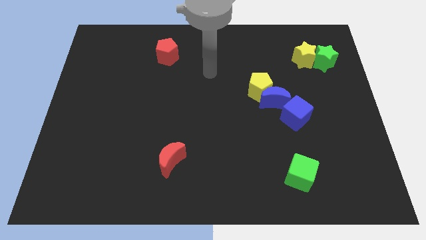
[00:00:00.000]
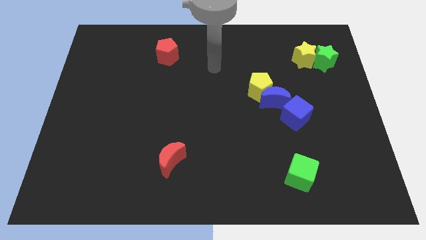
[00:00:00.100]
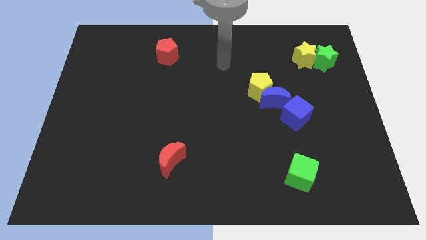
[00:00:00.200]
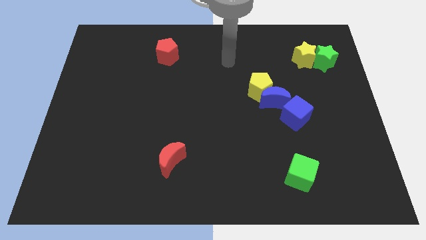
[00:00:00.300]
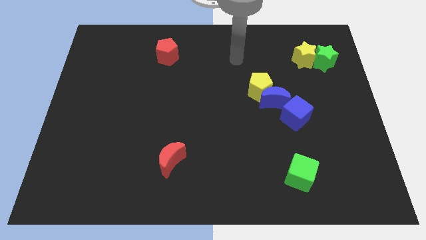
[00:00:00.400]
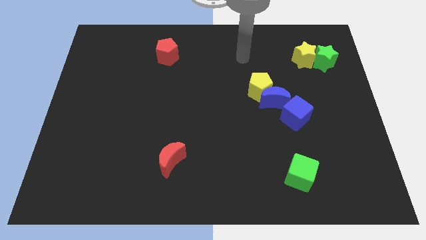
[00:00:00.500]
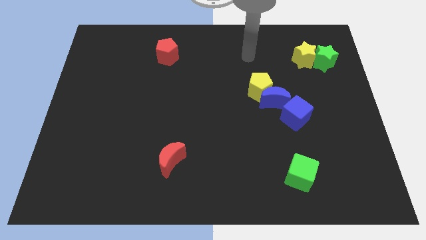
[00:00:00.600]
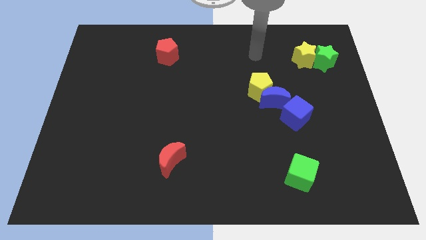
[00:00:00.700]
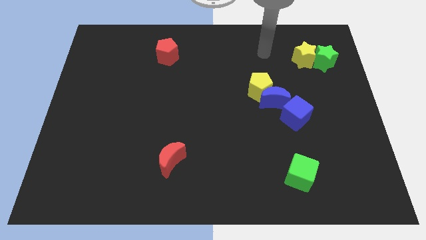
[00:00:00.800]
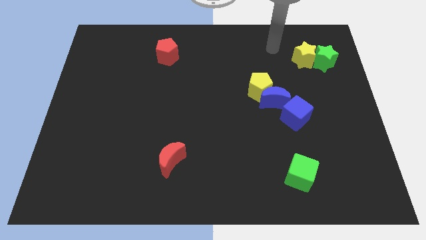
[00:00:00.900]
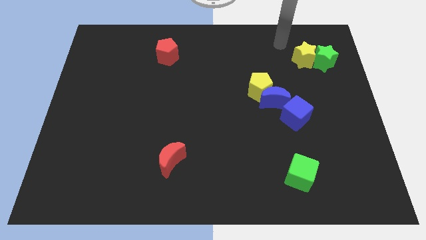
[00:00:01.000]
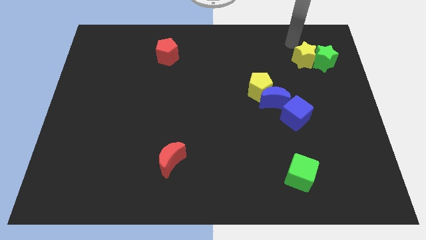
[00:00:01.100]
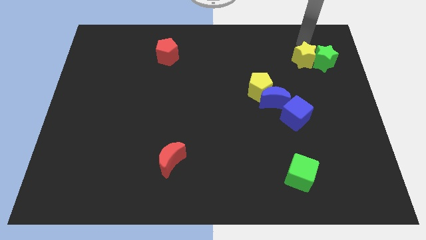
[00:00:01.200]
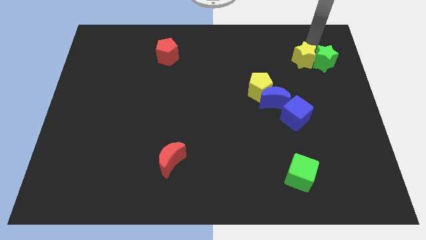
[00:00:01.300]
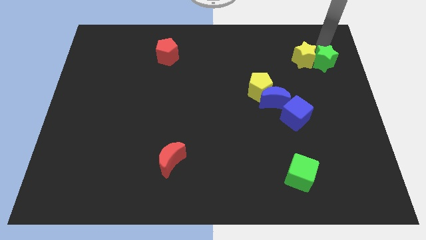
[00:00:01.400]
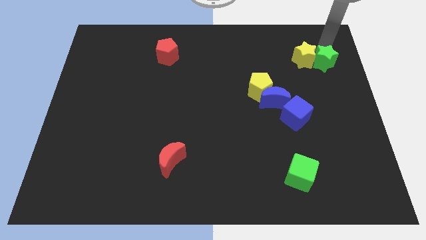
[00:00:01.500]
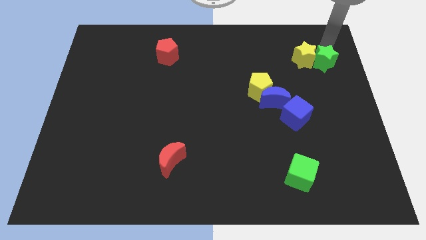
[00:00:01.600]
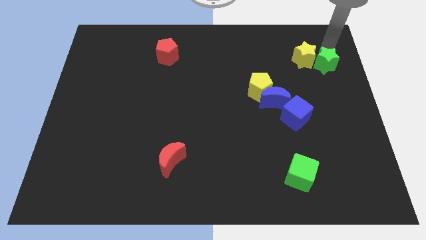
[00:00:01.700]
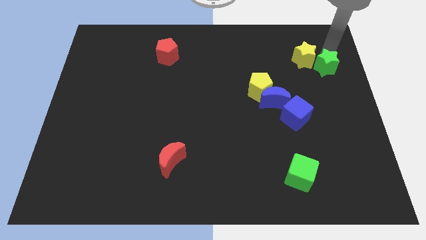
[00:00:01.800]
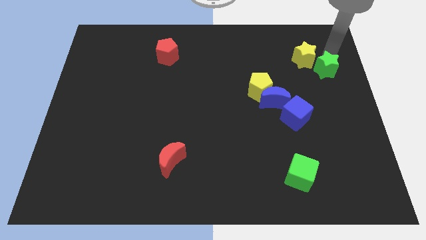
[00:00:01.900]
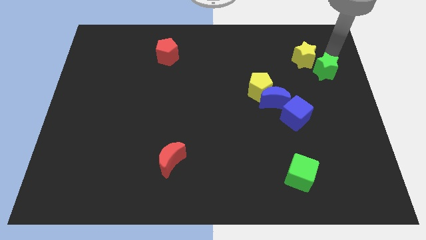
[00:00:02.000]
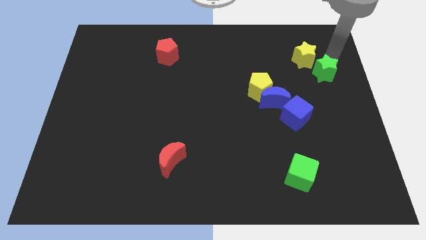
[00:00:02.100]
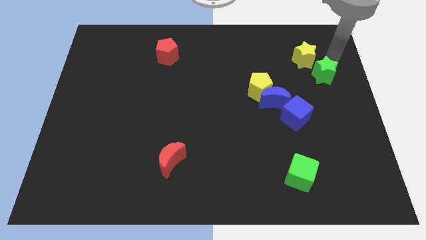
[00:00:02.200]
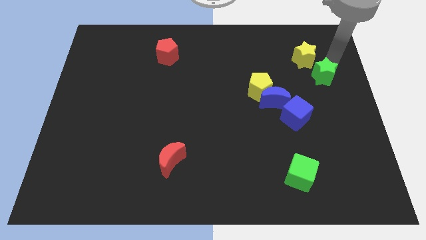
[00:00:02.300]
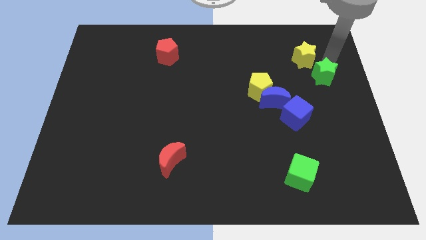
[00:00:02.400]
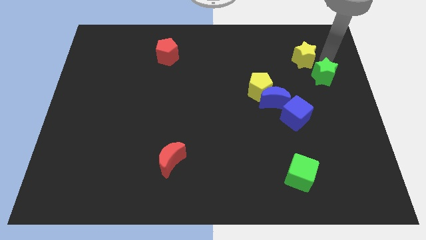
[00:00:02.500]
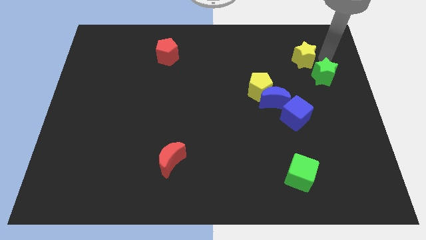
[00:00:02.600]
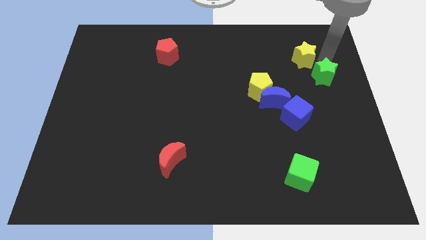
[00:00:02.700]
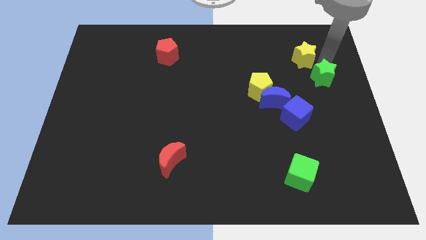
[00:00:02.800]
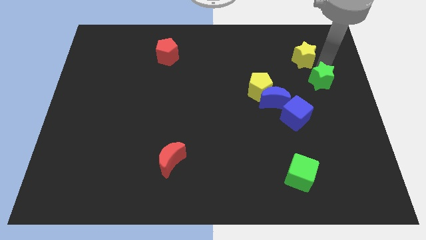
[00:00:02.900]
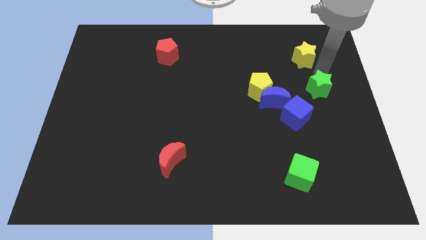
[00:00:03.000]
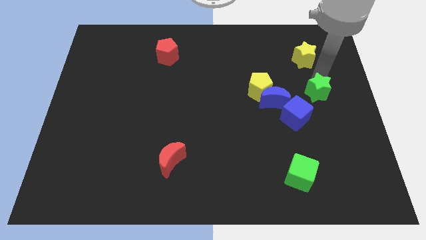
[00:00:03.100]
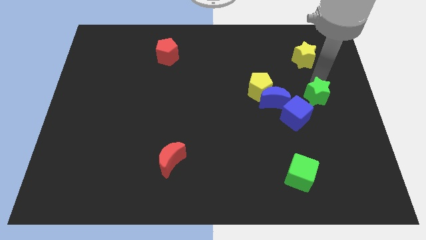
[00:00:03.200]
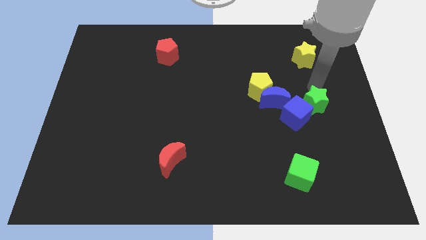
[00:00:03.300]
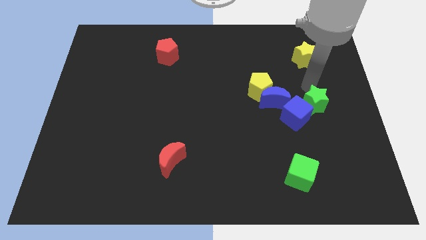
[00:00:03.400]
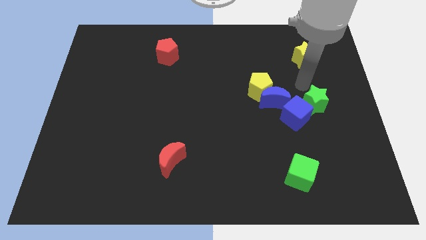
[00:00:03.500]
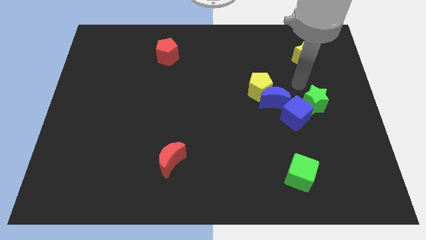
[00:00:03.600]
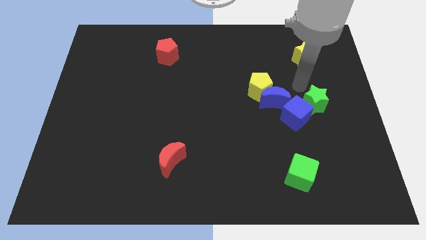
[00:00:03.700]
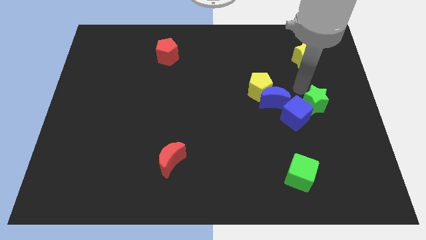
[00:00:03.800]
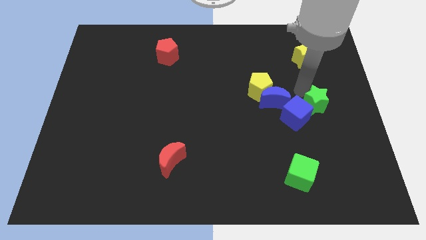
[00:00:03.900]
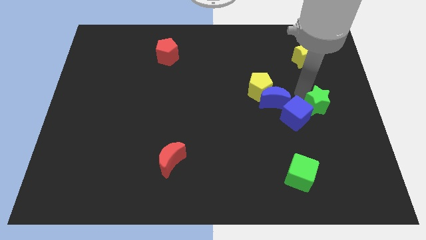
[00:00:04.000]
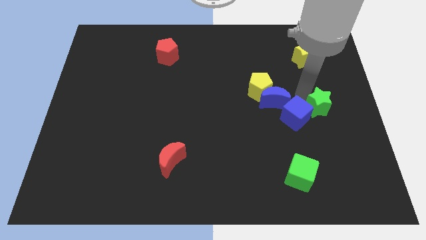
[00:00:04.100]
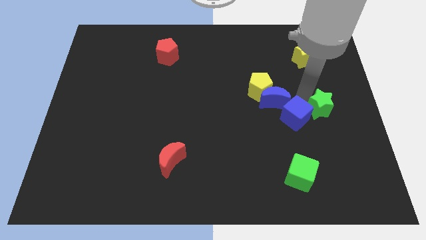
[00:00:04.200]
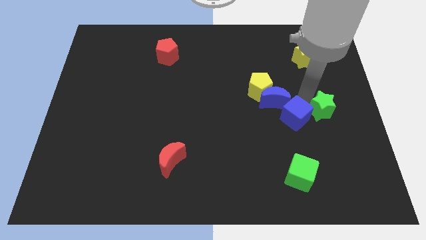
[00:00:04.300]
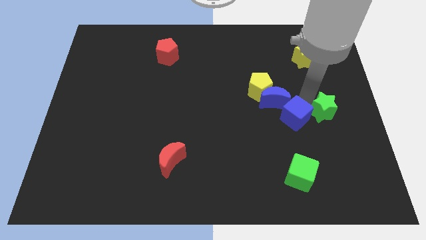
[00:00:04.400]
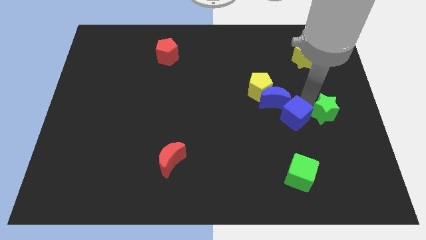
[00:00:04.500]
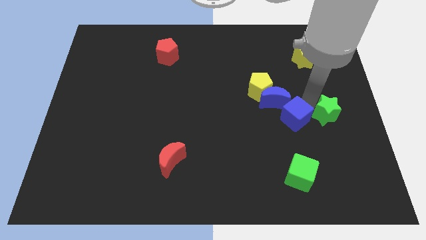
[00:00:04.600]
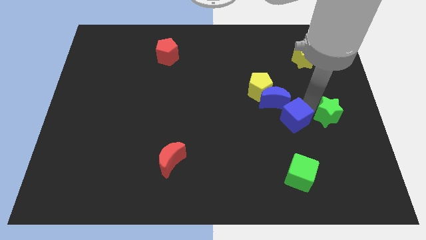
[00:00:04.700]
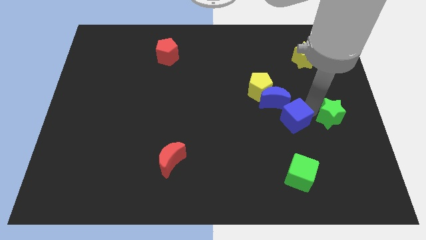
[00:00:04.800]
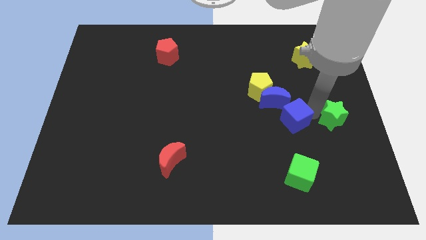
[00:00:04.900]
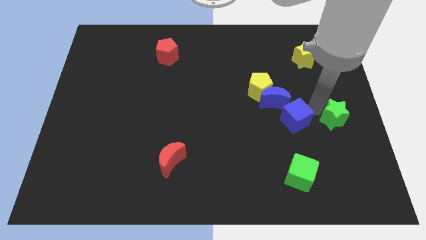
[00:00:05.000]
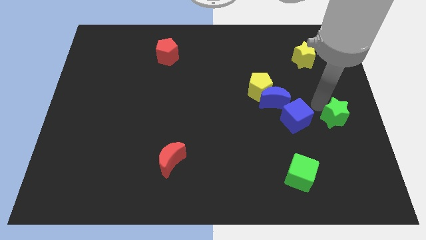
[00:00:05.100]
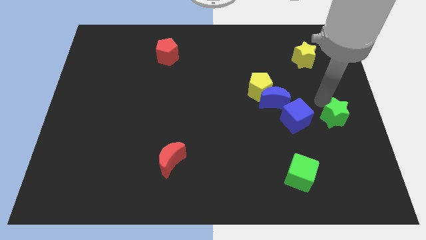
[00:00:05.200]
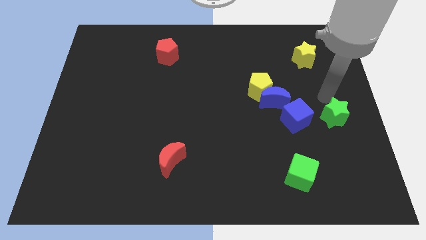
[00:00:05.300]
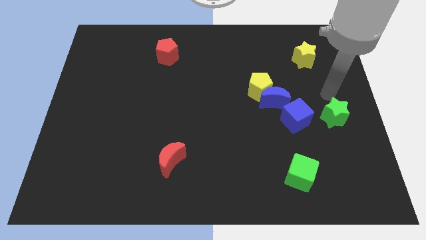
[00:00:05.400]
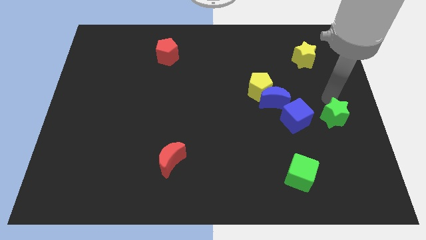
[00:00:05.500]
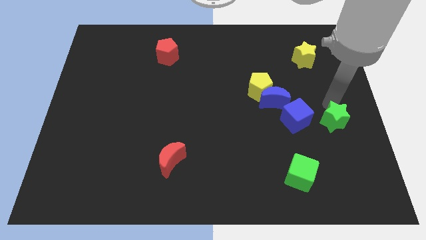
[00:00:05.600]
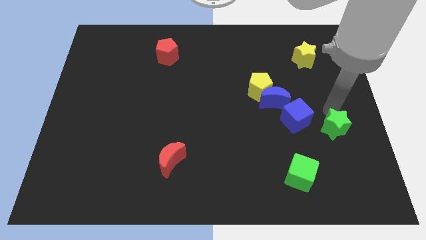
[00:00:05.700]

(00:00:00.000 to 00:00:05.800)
move the green star downwards

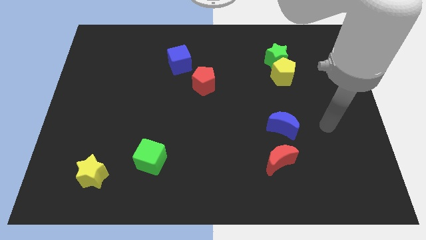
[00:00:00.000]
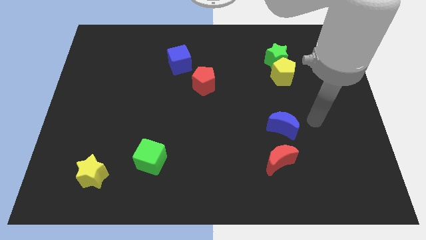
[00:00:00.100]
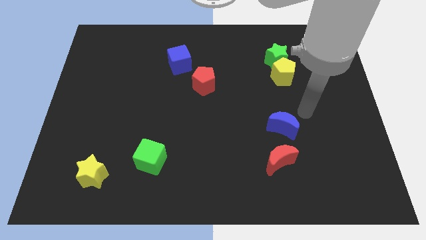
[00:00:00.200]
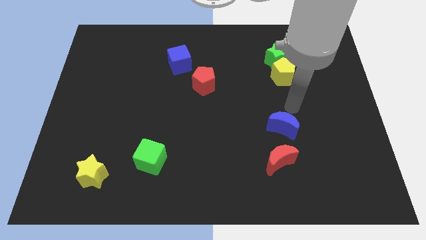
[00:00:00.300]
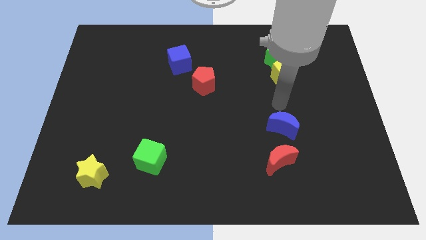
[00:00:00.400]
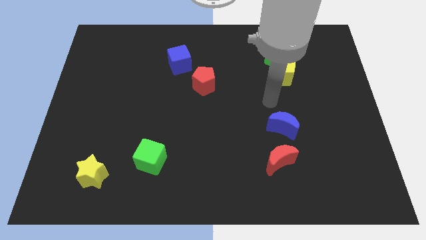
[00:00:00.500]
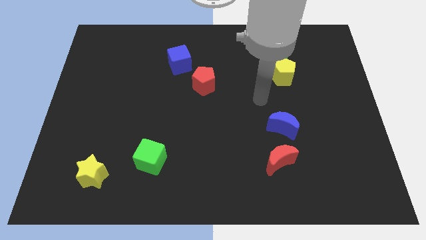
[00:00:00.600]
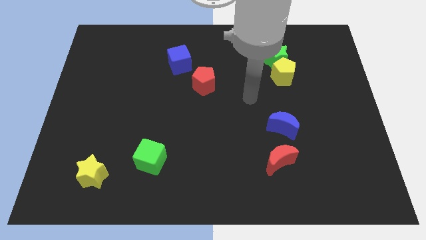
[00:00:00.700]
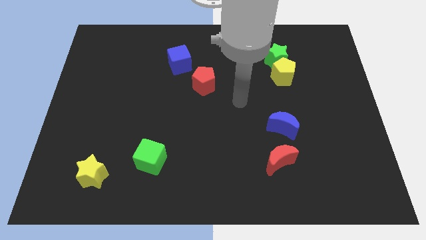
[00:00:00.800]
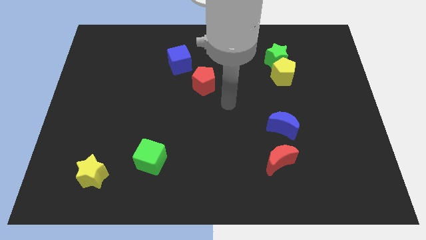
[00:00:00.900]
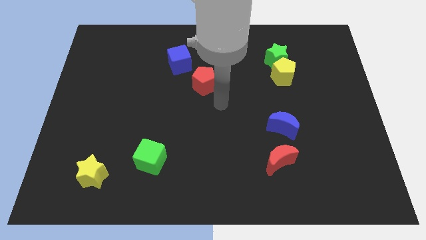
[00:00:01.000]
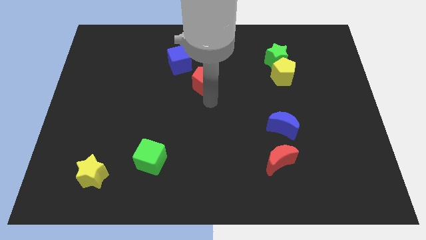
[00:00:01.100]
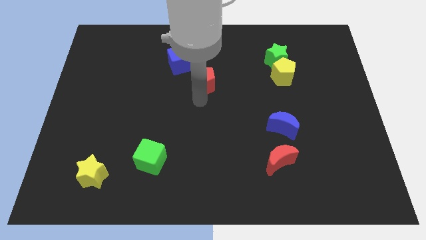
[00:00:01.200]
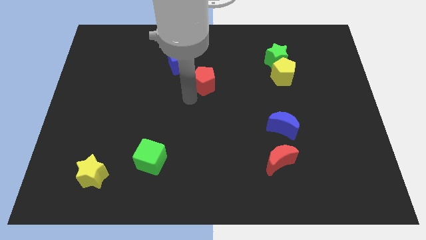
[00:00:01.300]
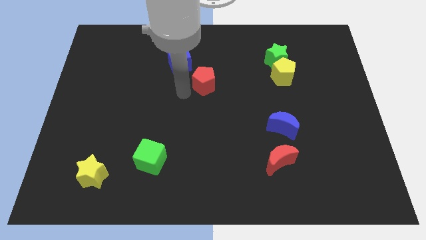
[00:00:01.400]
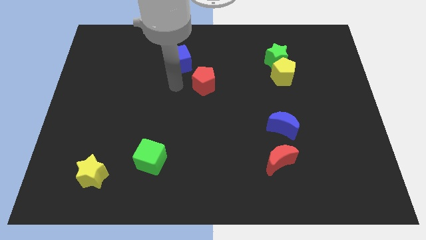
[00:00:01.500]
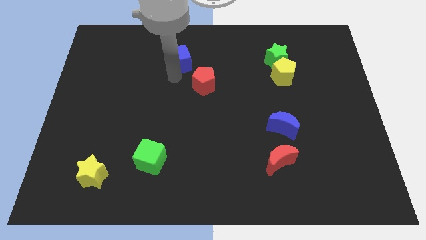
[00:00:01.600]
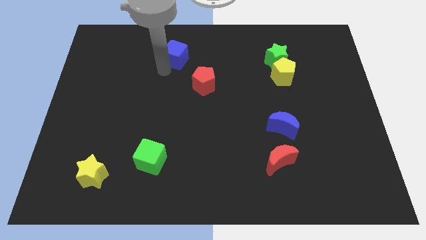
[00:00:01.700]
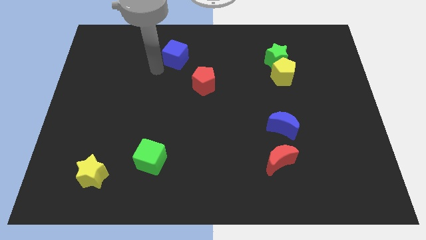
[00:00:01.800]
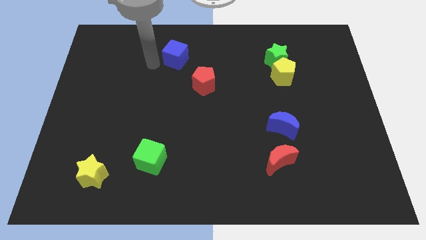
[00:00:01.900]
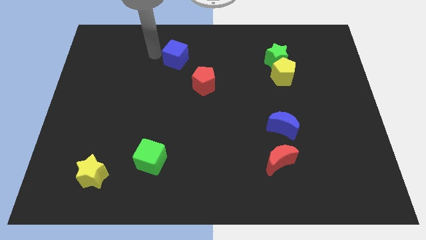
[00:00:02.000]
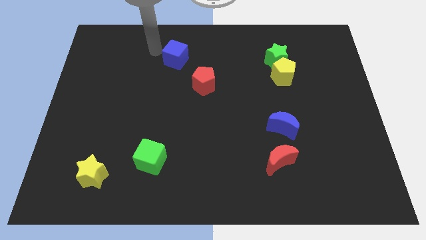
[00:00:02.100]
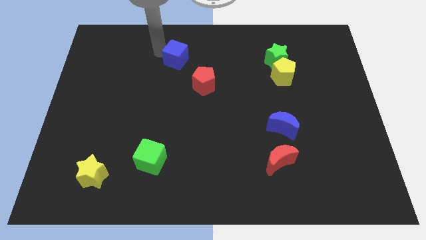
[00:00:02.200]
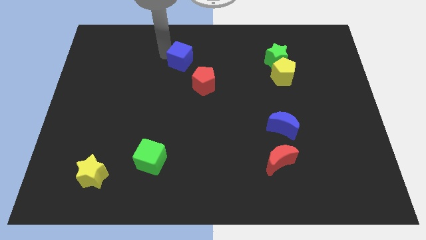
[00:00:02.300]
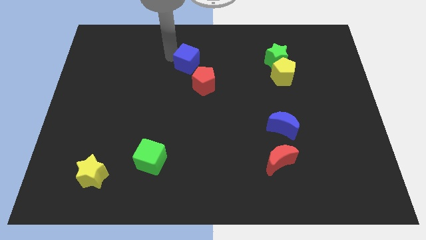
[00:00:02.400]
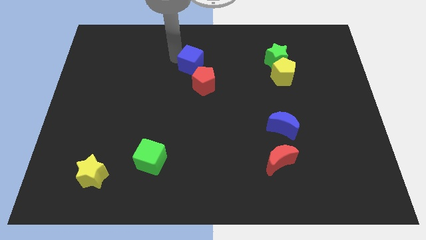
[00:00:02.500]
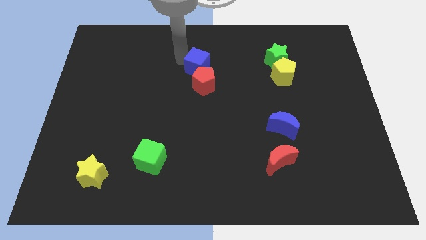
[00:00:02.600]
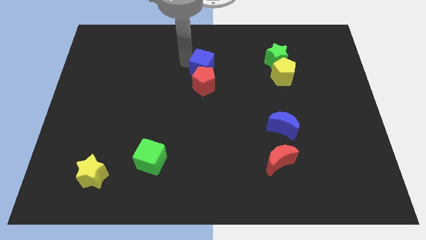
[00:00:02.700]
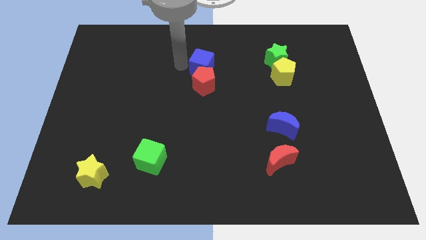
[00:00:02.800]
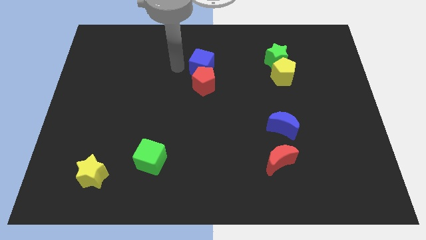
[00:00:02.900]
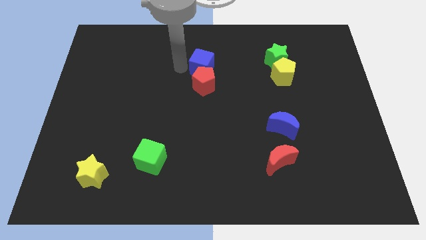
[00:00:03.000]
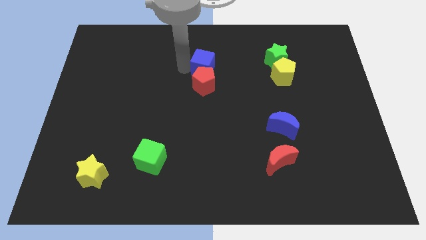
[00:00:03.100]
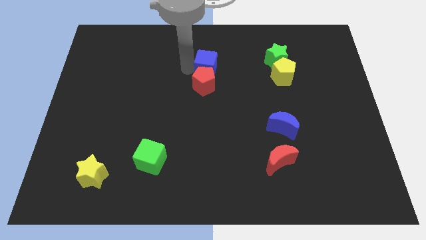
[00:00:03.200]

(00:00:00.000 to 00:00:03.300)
move the blue cube right a little
